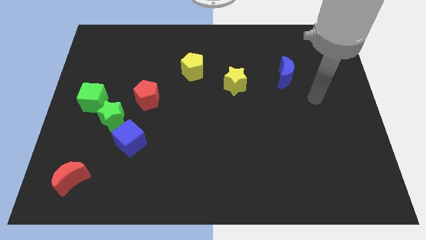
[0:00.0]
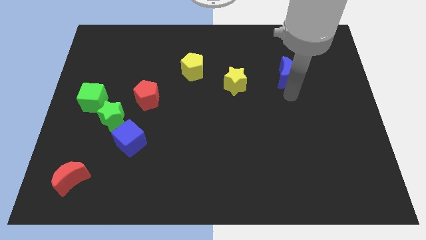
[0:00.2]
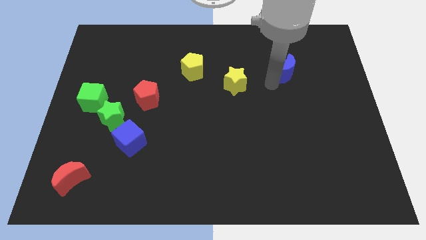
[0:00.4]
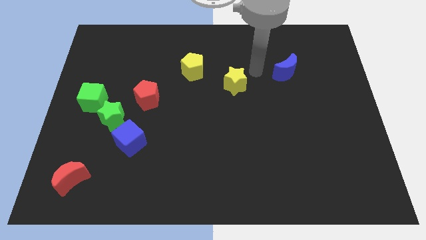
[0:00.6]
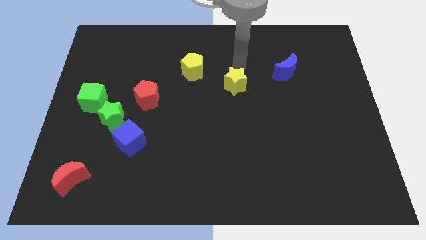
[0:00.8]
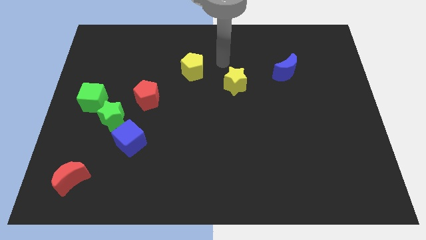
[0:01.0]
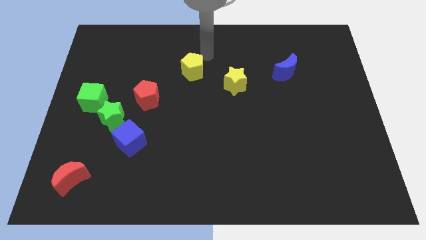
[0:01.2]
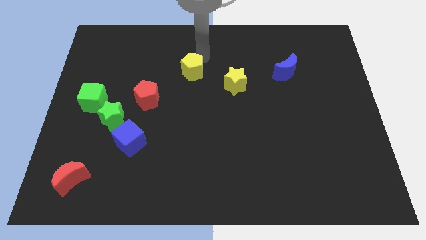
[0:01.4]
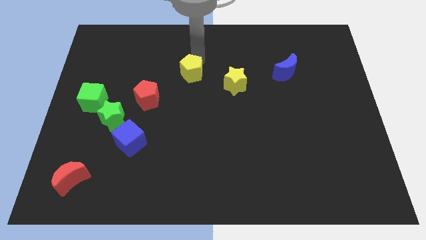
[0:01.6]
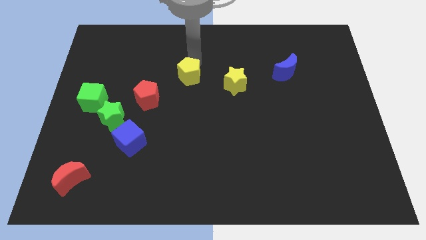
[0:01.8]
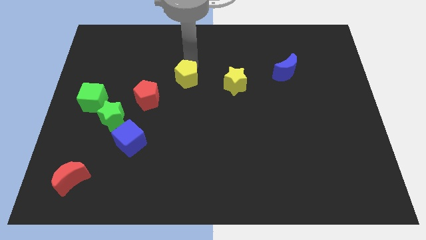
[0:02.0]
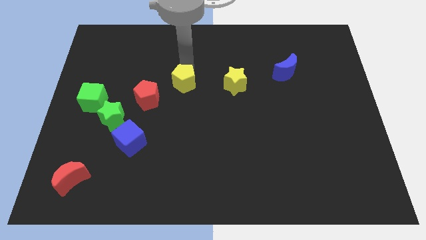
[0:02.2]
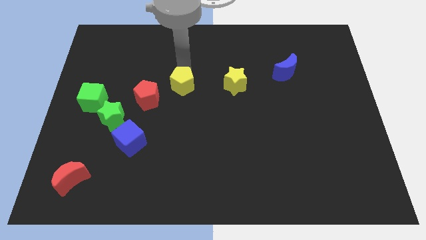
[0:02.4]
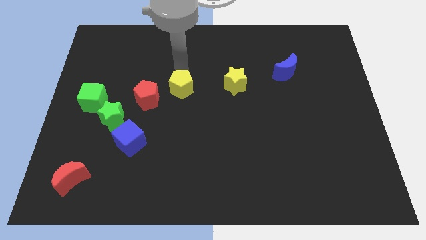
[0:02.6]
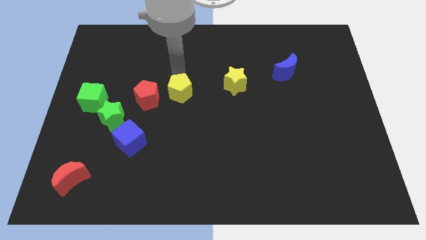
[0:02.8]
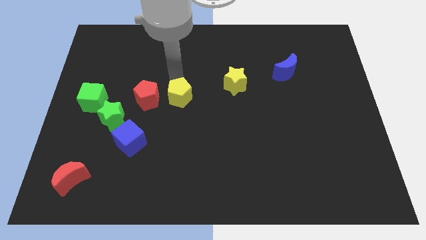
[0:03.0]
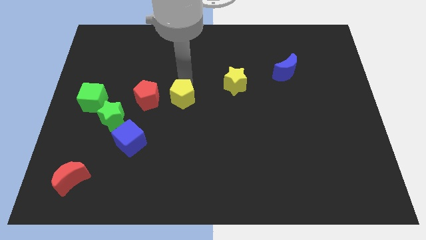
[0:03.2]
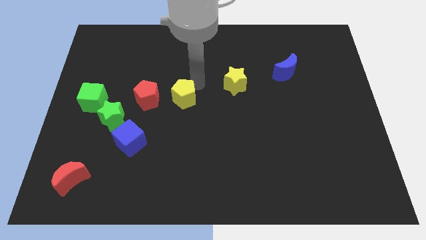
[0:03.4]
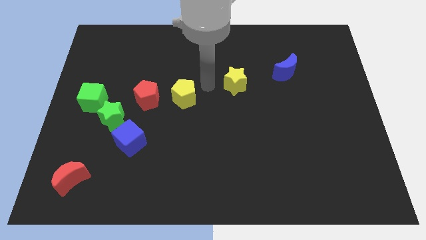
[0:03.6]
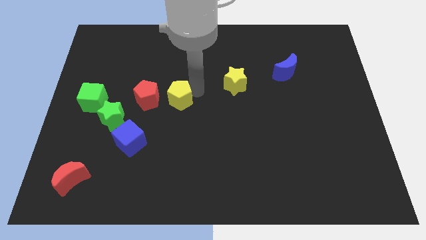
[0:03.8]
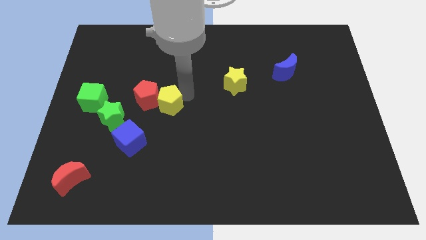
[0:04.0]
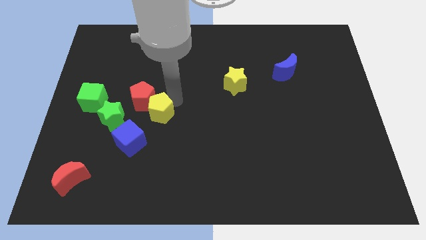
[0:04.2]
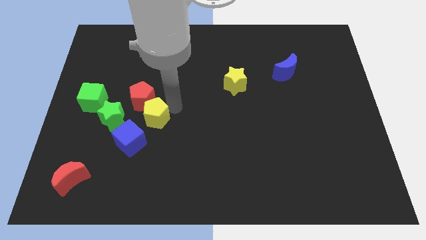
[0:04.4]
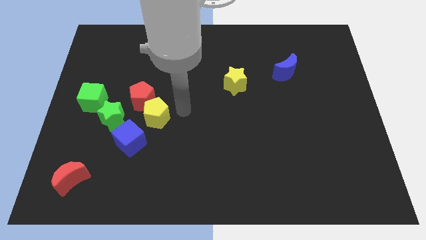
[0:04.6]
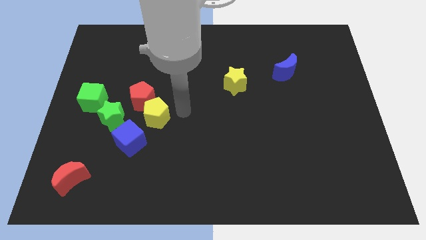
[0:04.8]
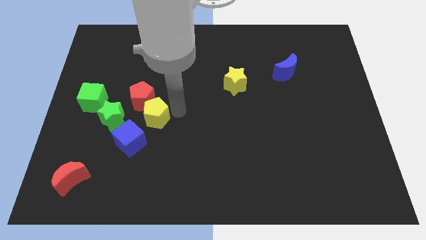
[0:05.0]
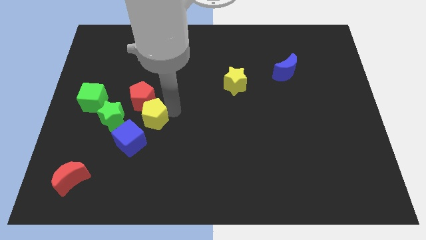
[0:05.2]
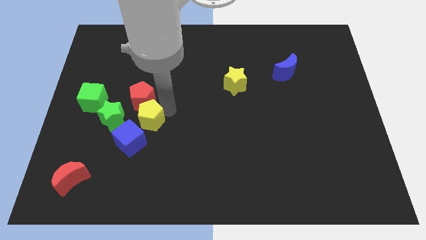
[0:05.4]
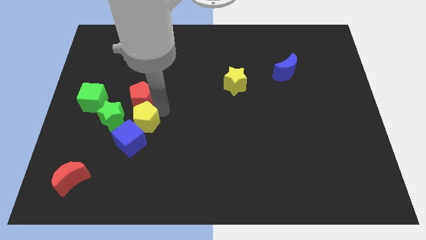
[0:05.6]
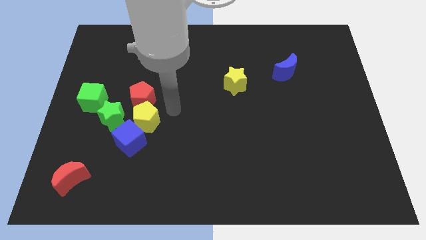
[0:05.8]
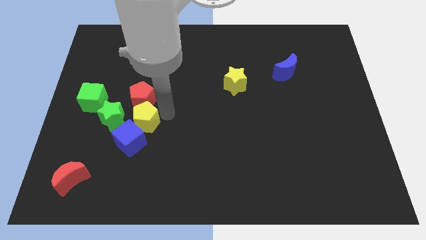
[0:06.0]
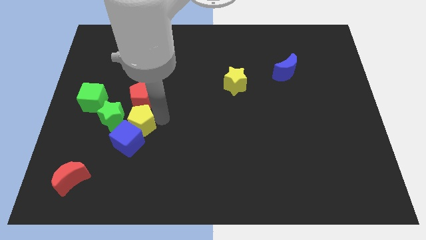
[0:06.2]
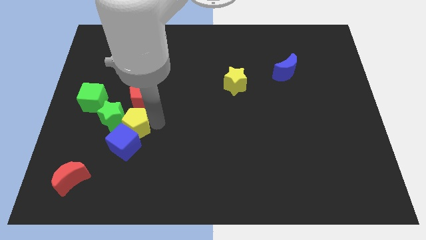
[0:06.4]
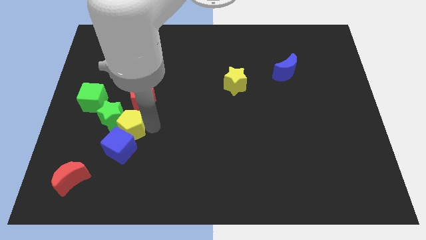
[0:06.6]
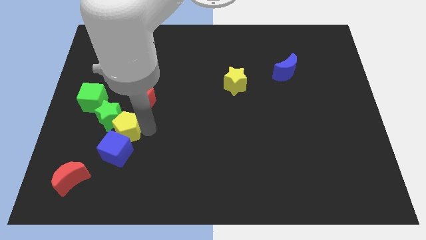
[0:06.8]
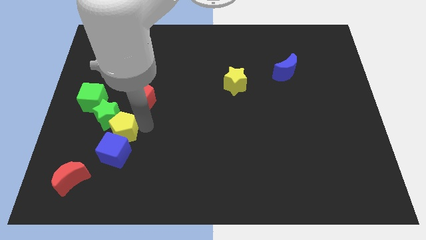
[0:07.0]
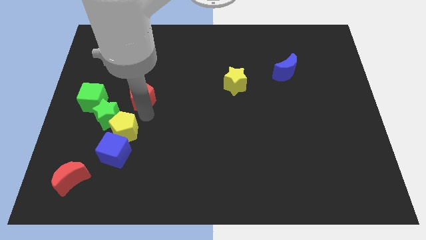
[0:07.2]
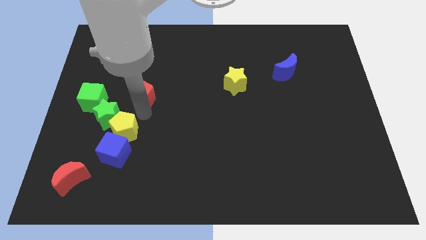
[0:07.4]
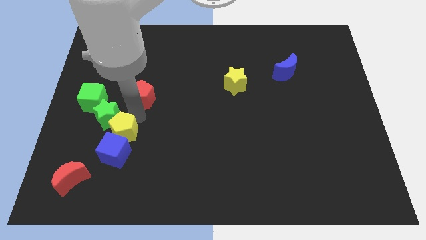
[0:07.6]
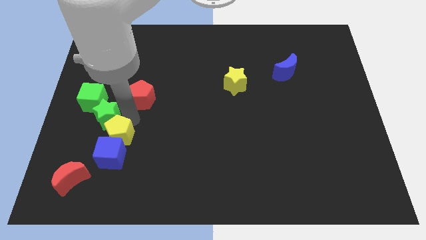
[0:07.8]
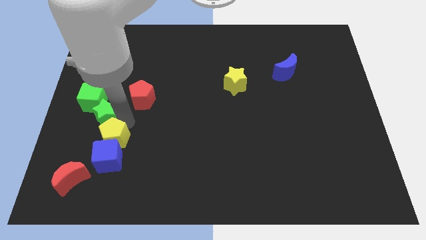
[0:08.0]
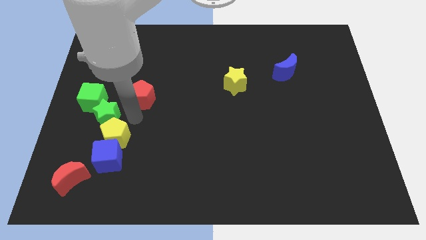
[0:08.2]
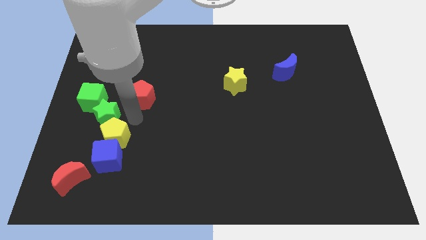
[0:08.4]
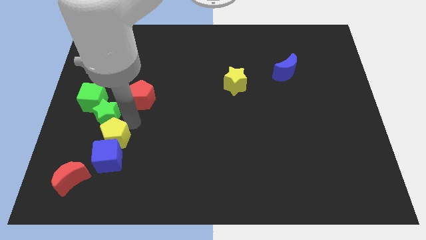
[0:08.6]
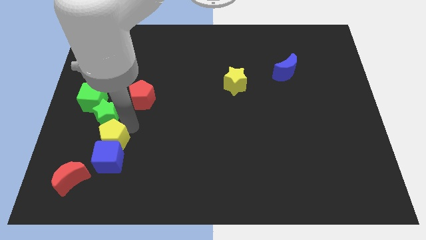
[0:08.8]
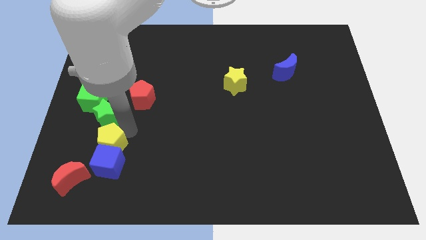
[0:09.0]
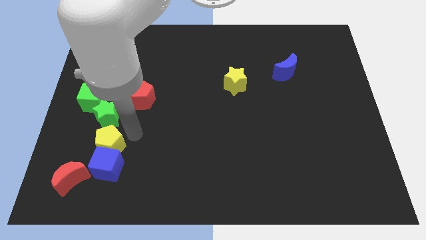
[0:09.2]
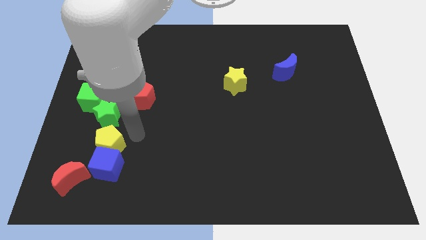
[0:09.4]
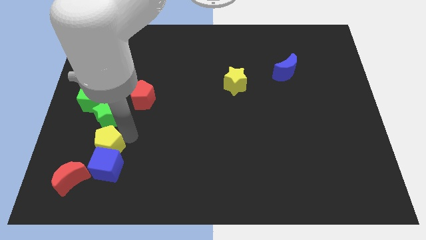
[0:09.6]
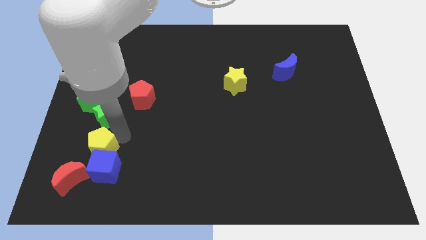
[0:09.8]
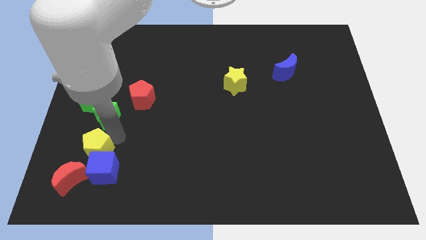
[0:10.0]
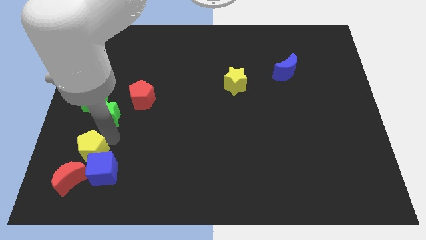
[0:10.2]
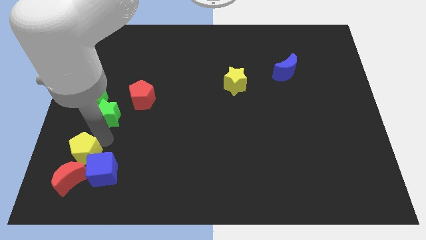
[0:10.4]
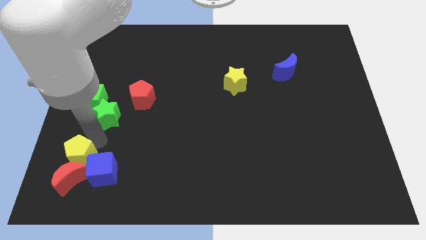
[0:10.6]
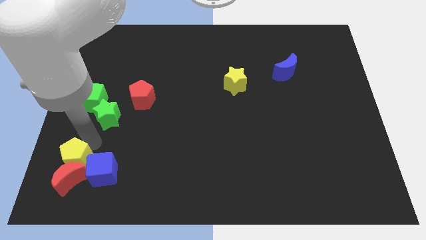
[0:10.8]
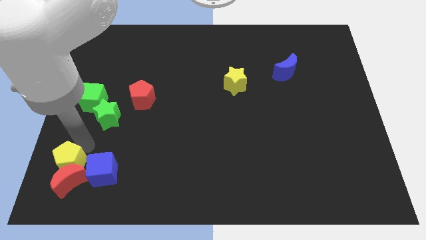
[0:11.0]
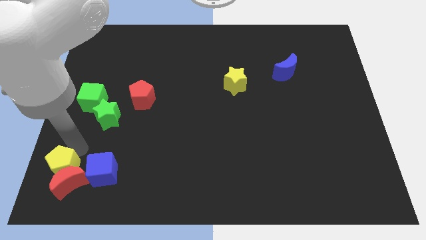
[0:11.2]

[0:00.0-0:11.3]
move the yellow pentagon to the bottom left of the board
